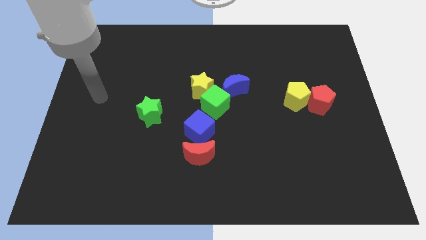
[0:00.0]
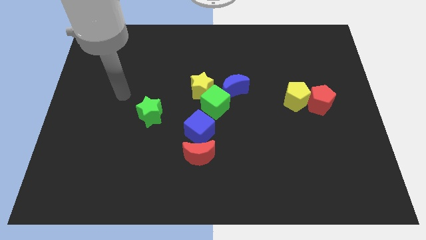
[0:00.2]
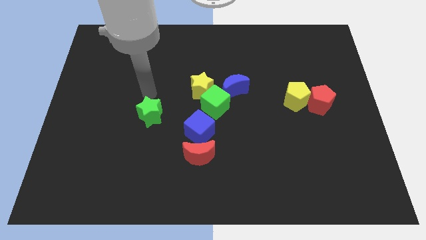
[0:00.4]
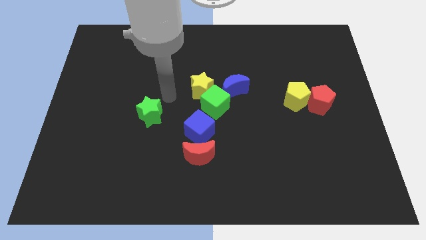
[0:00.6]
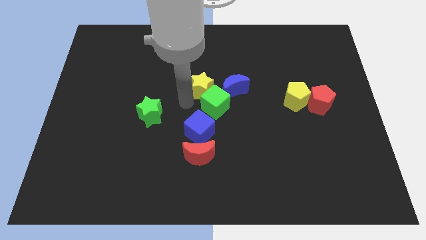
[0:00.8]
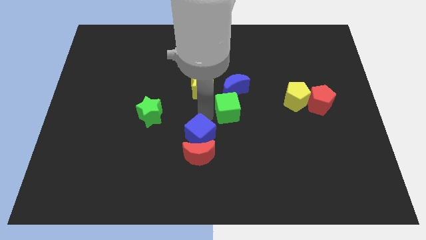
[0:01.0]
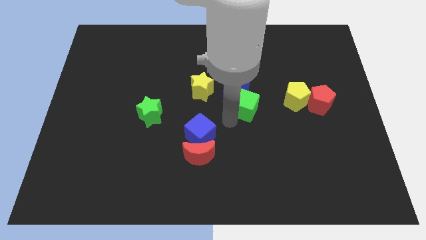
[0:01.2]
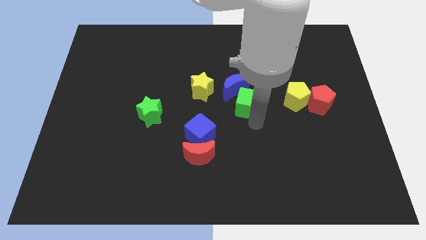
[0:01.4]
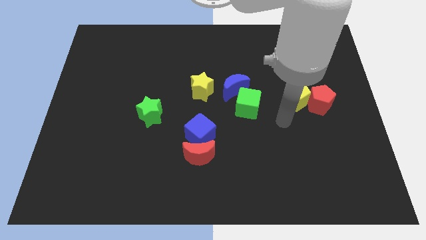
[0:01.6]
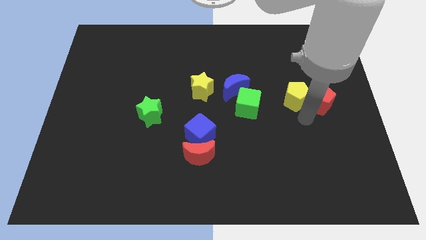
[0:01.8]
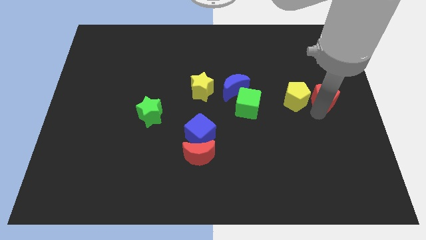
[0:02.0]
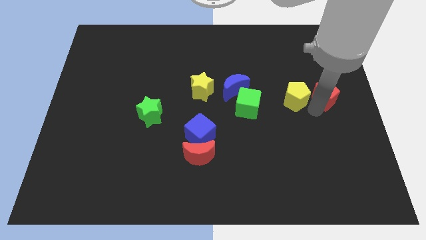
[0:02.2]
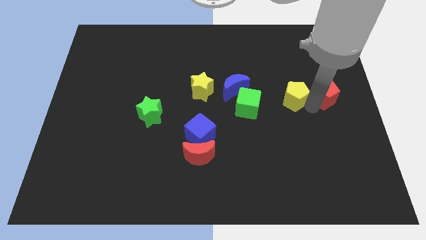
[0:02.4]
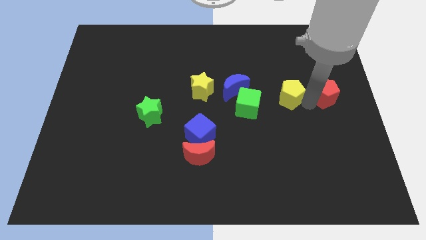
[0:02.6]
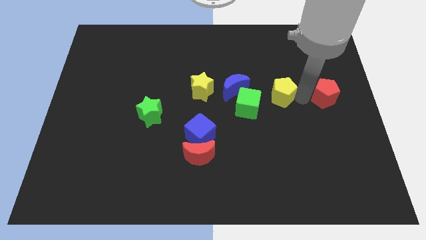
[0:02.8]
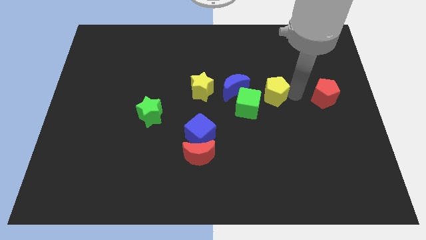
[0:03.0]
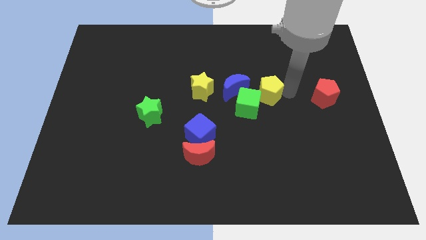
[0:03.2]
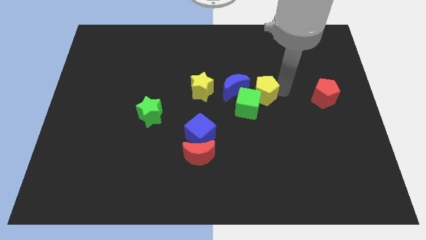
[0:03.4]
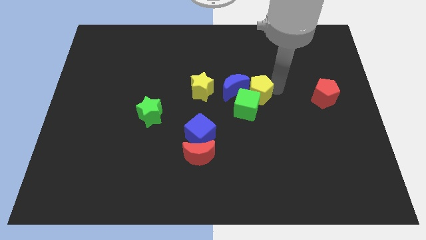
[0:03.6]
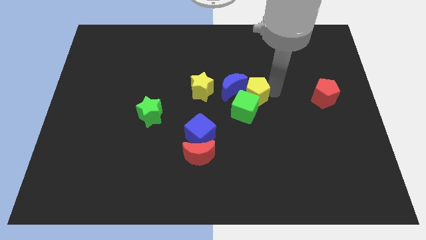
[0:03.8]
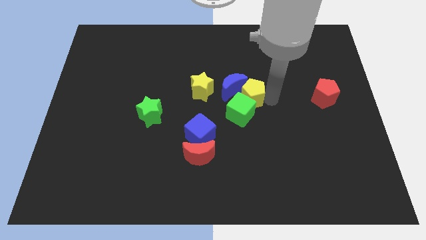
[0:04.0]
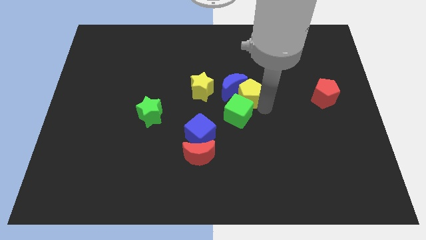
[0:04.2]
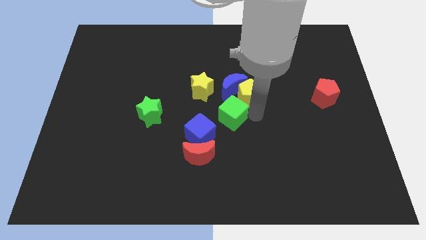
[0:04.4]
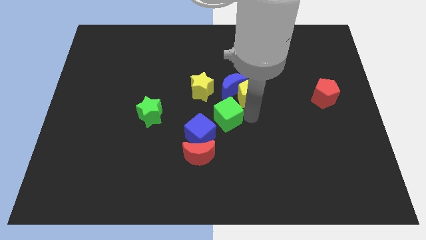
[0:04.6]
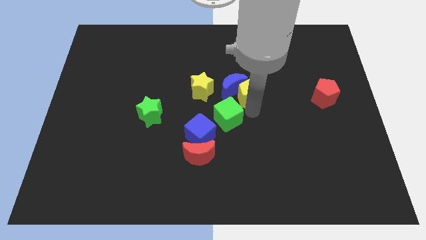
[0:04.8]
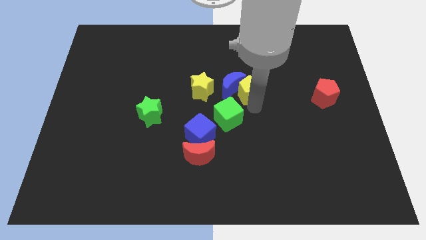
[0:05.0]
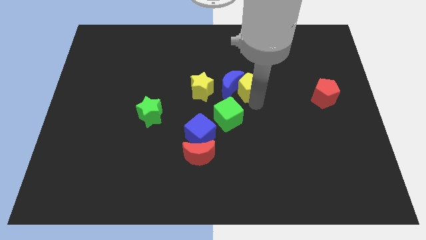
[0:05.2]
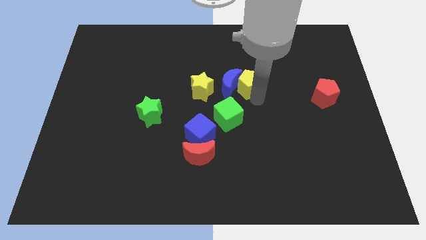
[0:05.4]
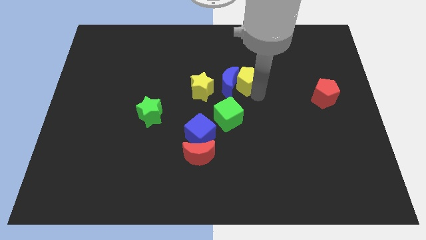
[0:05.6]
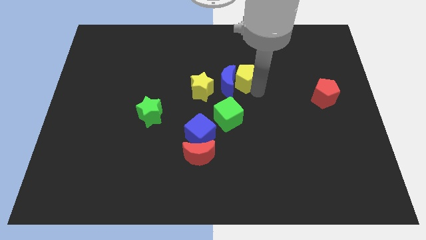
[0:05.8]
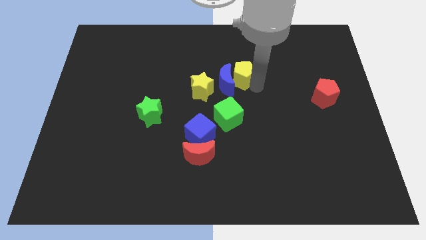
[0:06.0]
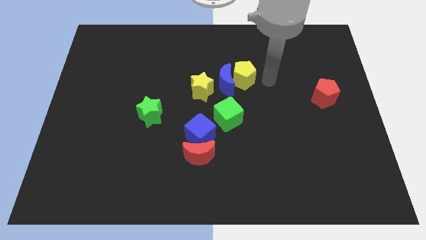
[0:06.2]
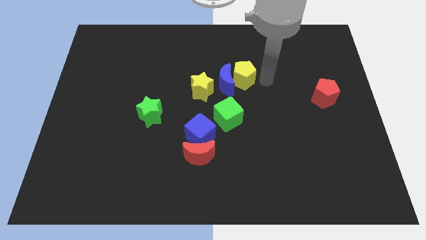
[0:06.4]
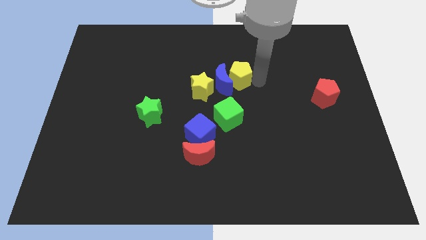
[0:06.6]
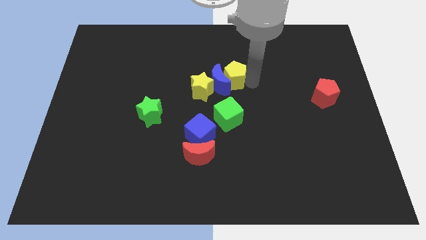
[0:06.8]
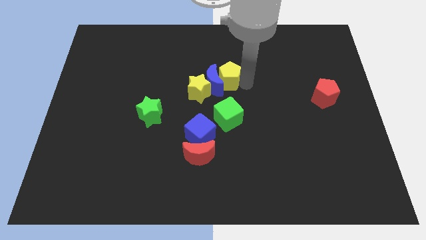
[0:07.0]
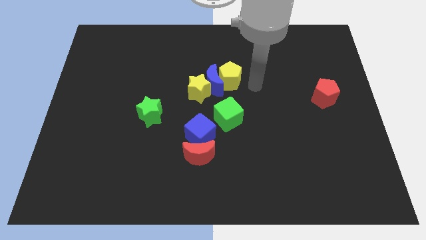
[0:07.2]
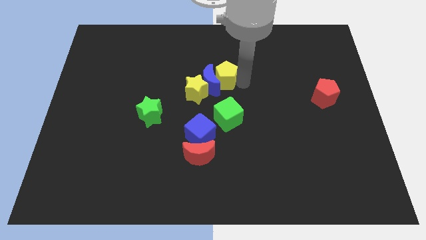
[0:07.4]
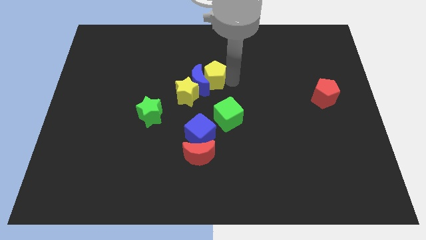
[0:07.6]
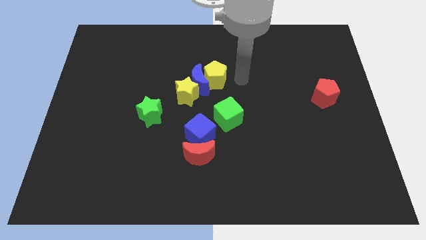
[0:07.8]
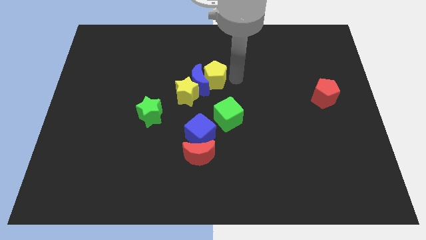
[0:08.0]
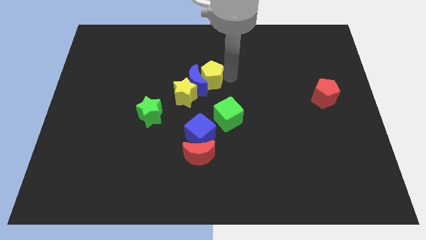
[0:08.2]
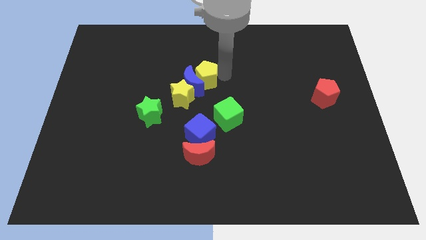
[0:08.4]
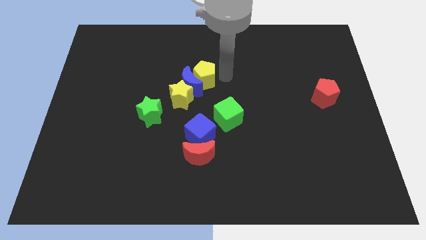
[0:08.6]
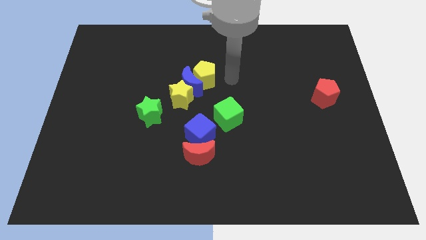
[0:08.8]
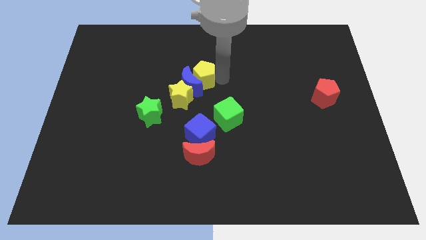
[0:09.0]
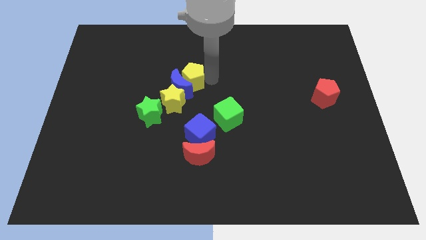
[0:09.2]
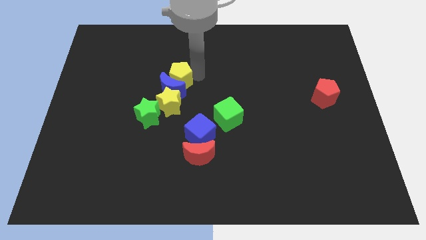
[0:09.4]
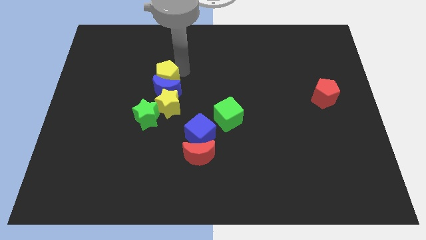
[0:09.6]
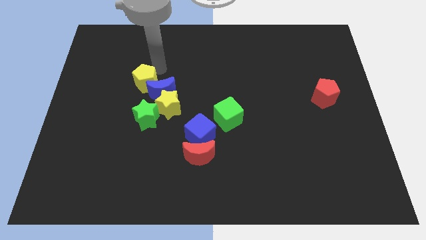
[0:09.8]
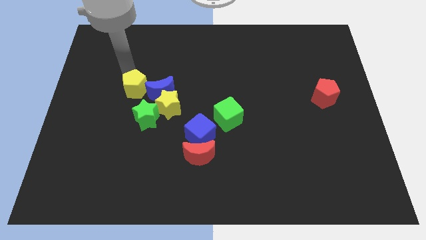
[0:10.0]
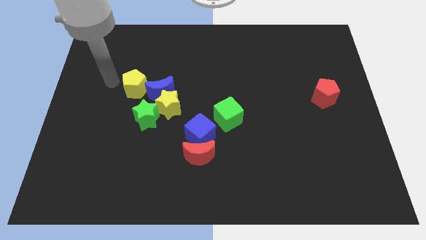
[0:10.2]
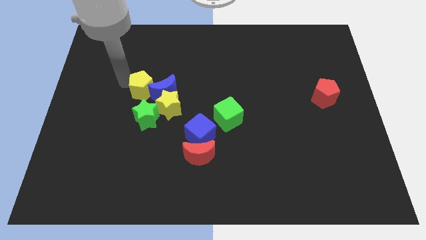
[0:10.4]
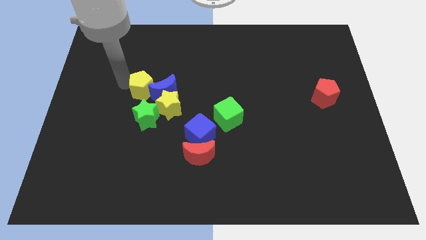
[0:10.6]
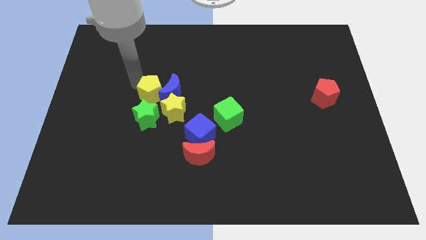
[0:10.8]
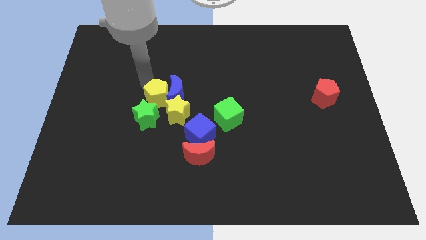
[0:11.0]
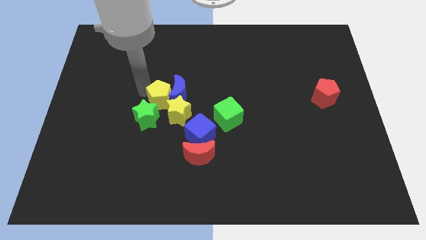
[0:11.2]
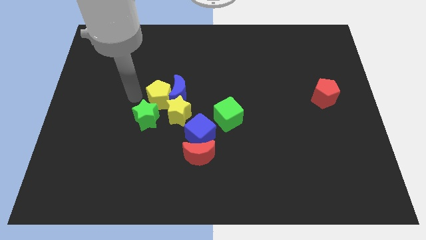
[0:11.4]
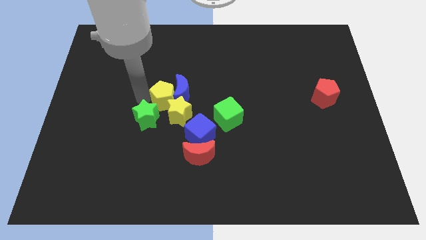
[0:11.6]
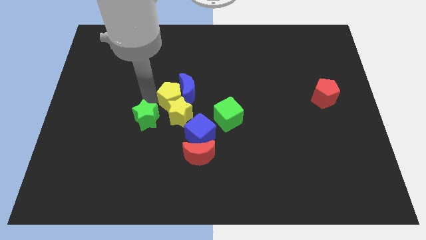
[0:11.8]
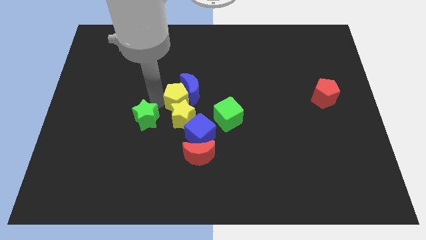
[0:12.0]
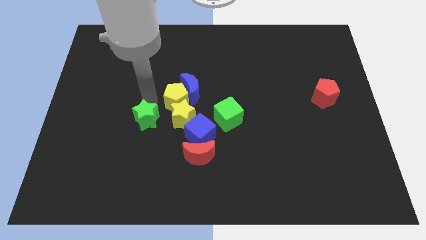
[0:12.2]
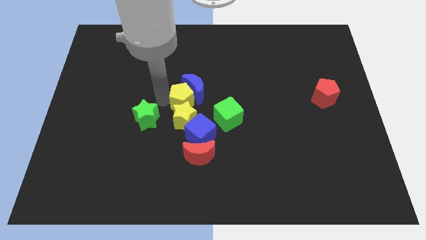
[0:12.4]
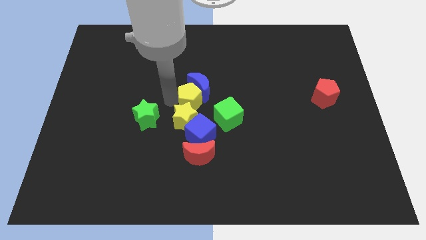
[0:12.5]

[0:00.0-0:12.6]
slide the yellow pentagon to the top left of the green cube

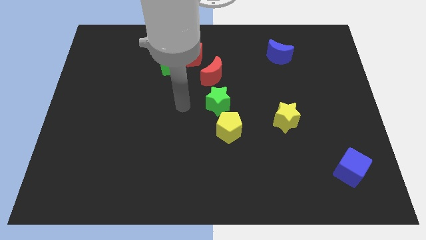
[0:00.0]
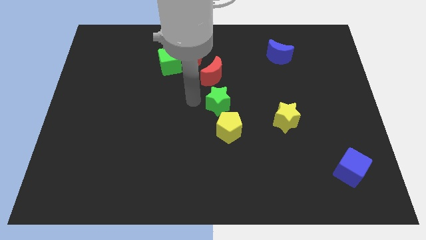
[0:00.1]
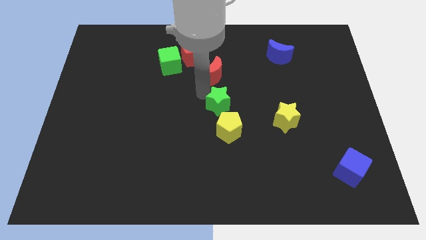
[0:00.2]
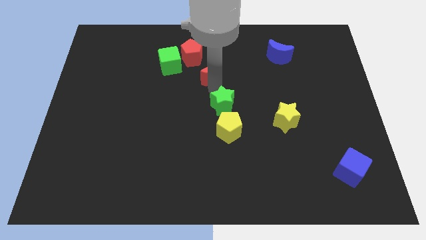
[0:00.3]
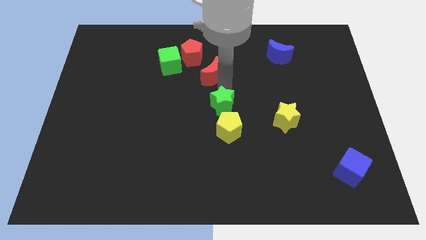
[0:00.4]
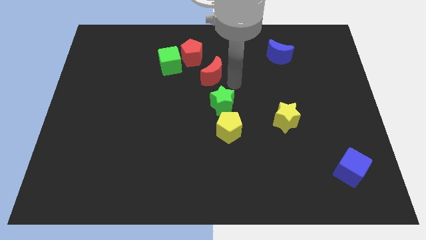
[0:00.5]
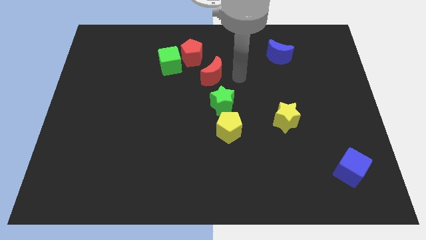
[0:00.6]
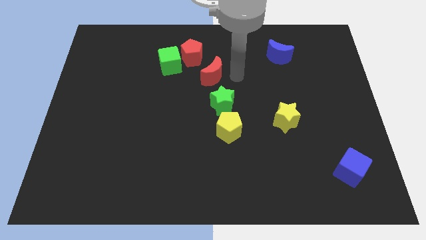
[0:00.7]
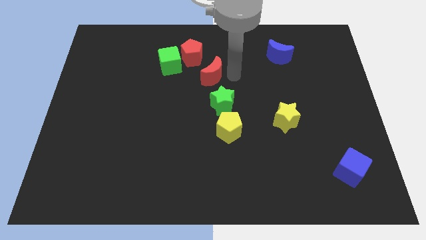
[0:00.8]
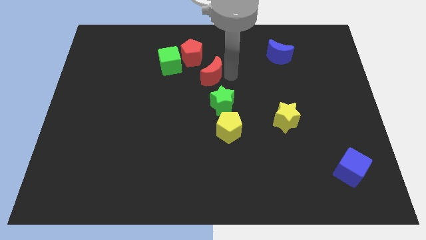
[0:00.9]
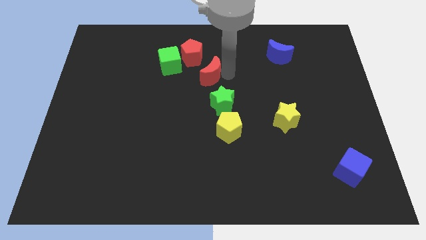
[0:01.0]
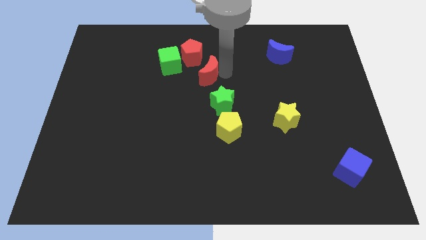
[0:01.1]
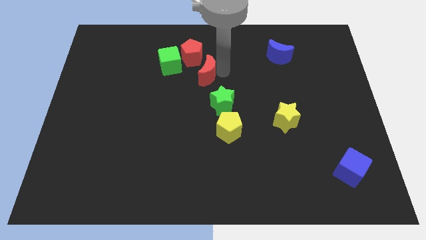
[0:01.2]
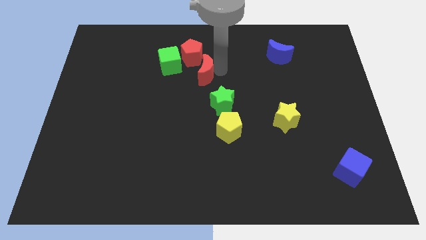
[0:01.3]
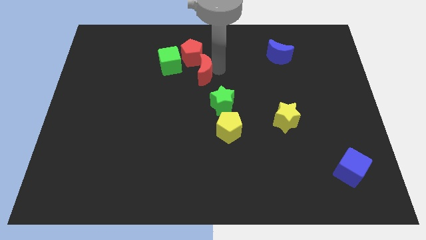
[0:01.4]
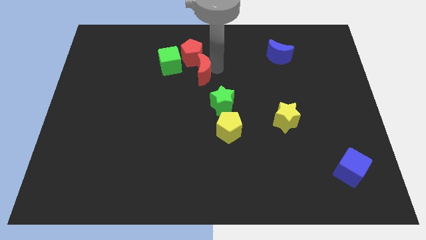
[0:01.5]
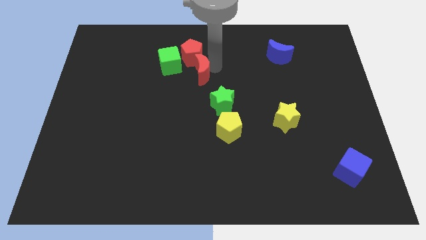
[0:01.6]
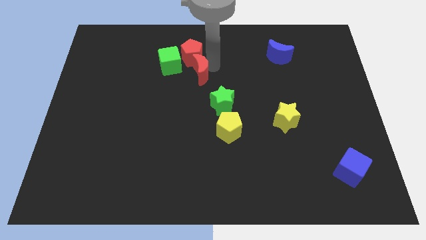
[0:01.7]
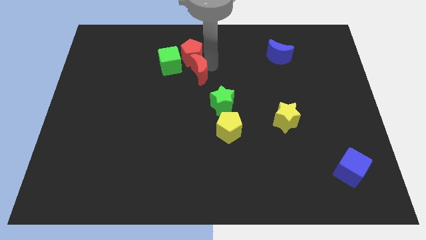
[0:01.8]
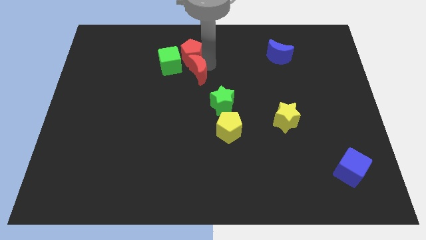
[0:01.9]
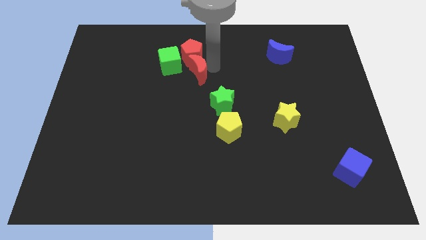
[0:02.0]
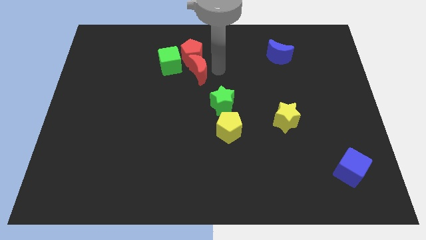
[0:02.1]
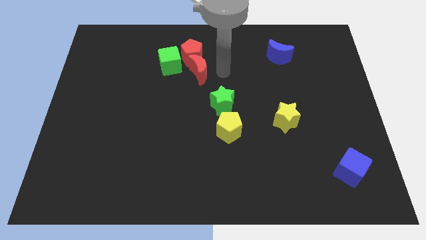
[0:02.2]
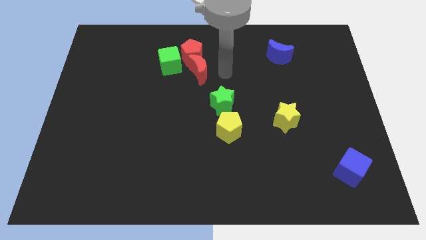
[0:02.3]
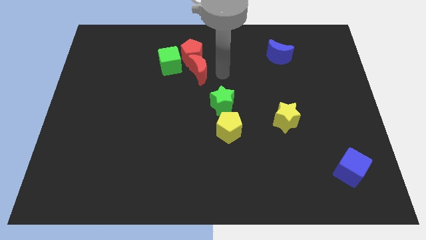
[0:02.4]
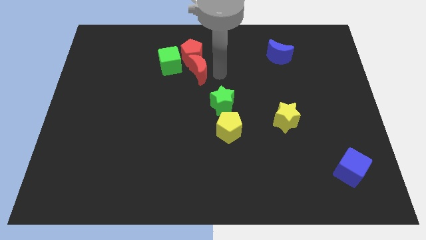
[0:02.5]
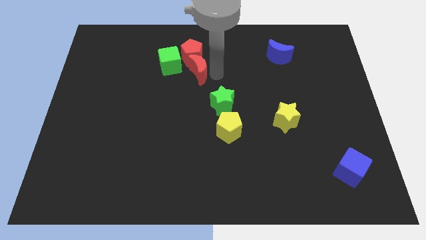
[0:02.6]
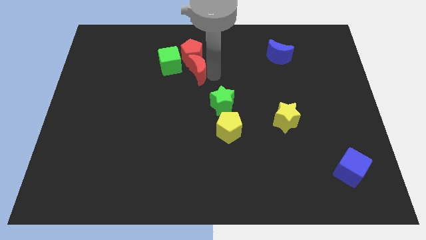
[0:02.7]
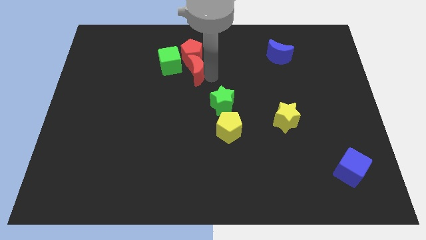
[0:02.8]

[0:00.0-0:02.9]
move the red moon to the bottom left of the red pentagon
